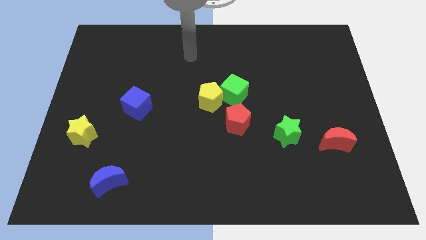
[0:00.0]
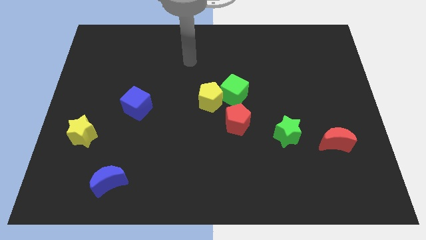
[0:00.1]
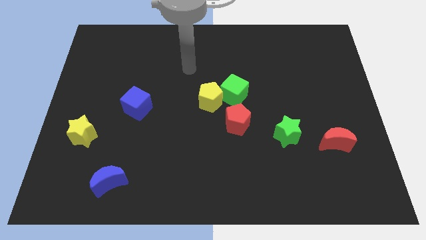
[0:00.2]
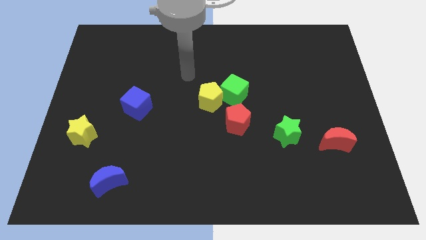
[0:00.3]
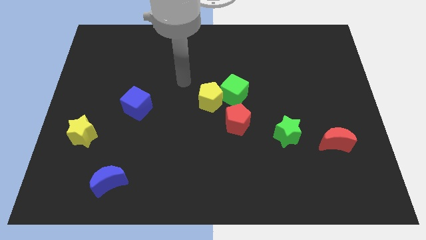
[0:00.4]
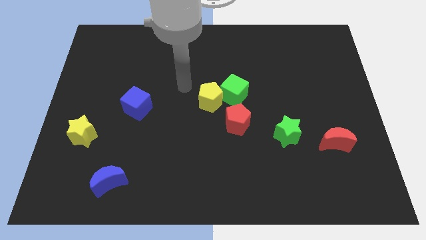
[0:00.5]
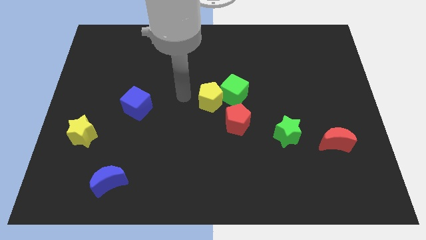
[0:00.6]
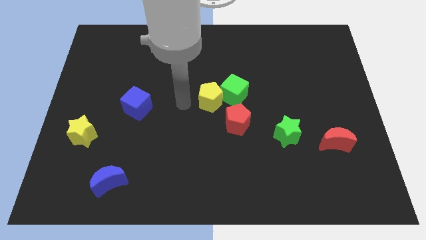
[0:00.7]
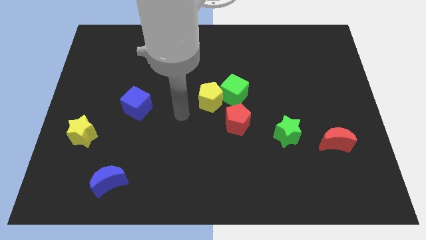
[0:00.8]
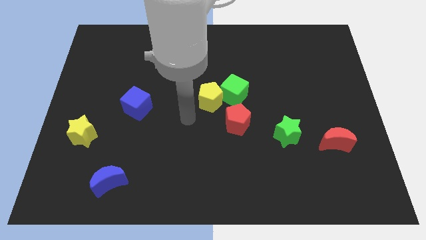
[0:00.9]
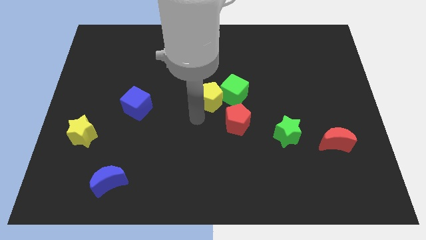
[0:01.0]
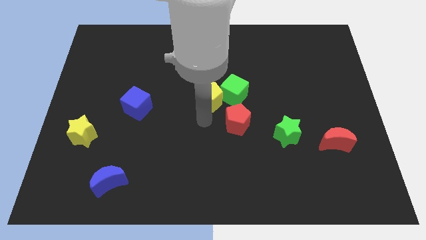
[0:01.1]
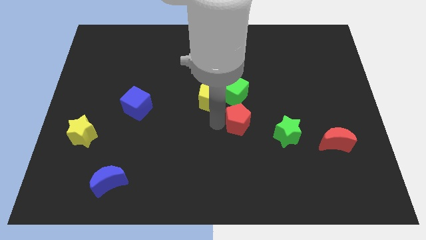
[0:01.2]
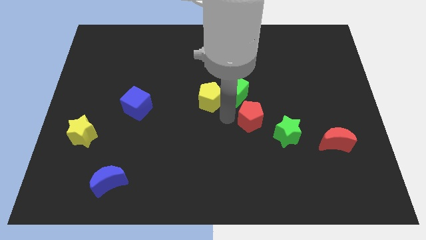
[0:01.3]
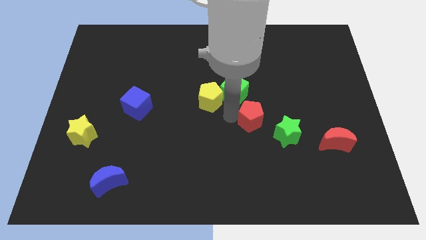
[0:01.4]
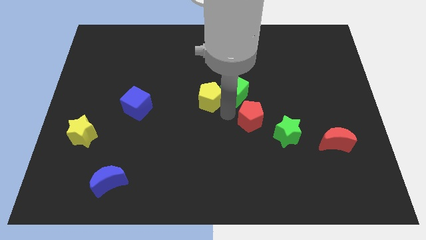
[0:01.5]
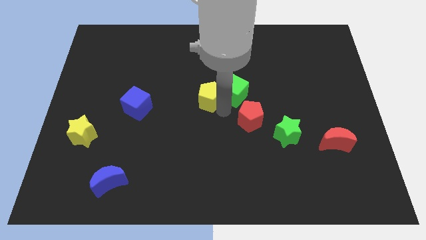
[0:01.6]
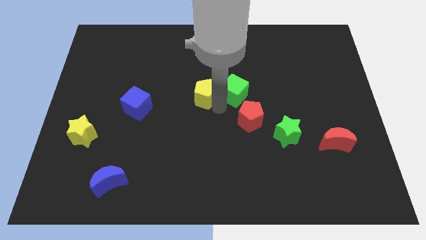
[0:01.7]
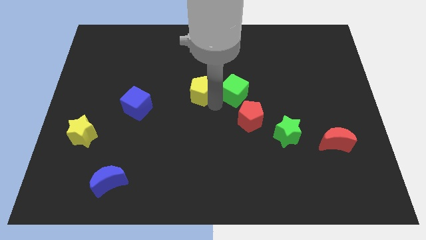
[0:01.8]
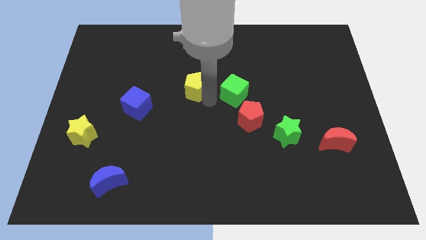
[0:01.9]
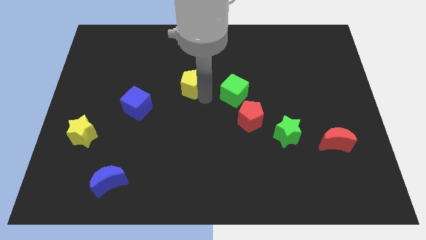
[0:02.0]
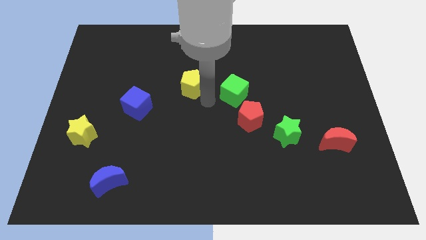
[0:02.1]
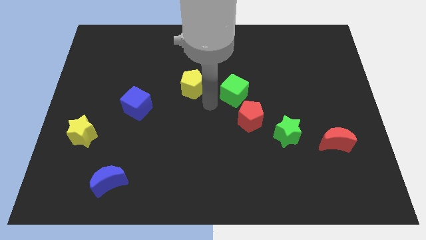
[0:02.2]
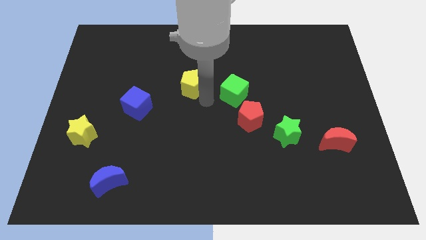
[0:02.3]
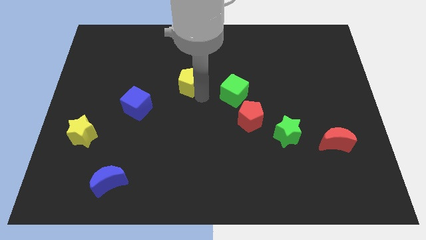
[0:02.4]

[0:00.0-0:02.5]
slightly push the yellow pentagon upwards and to the left

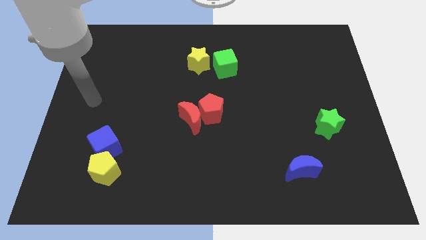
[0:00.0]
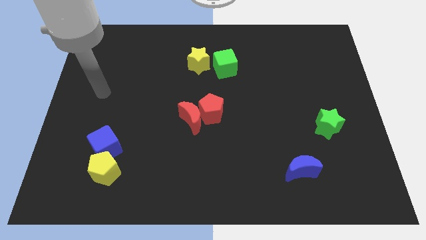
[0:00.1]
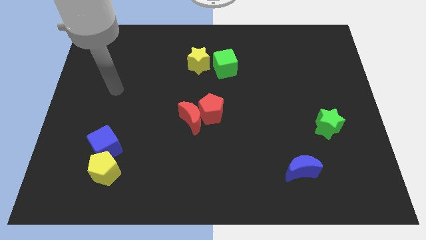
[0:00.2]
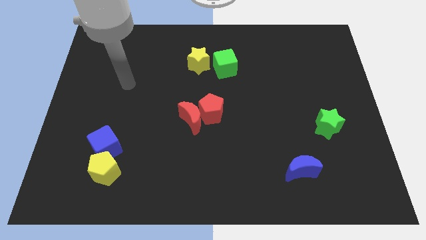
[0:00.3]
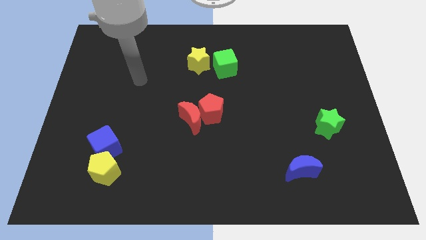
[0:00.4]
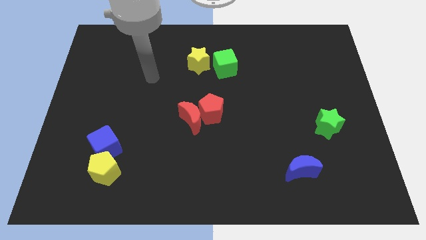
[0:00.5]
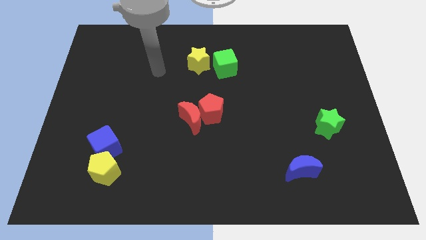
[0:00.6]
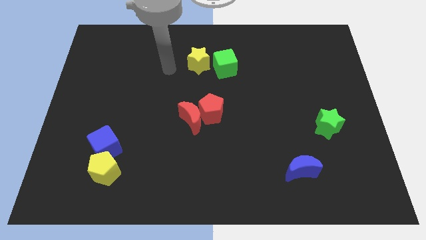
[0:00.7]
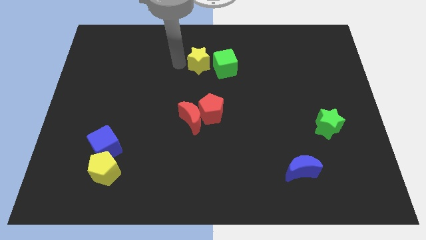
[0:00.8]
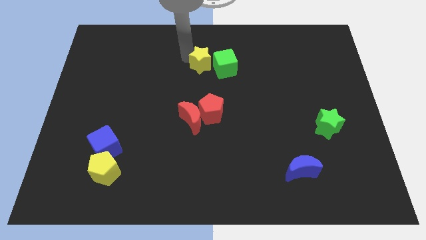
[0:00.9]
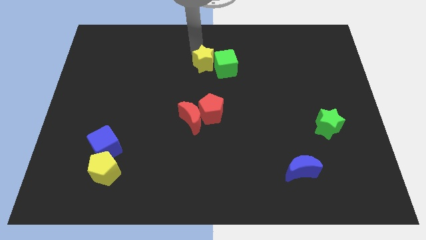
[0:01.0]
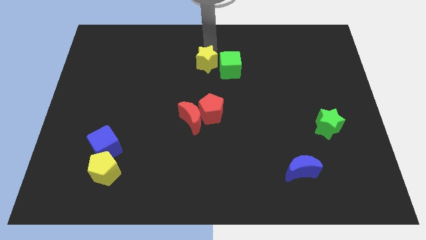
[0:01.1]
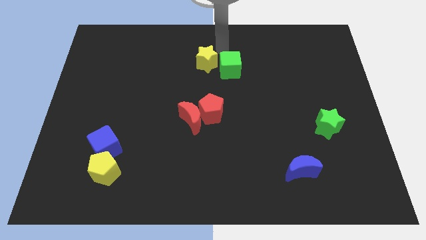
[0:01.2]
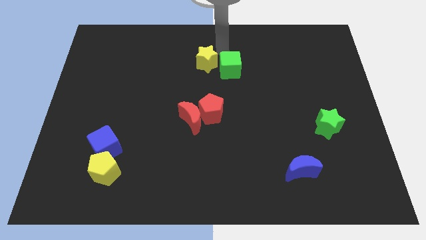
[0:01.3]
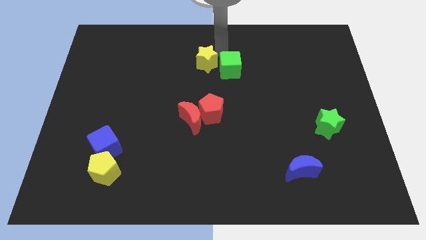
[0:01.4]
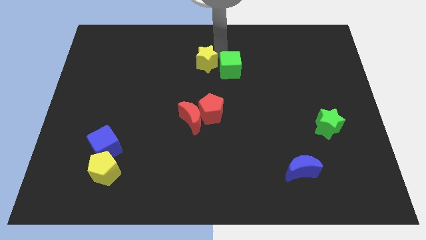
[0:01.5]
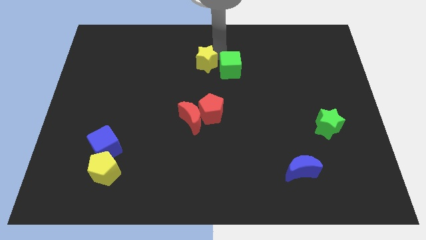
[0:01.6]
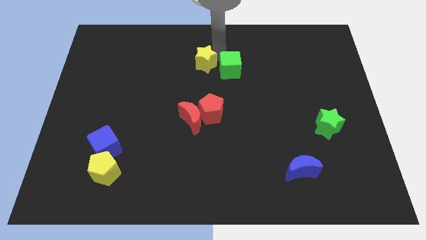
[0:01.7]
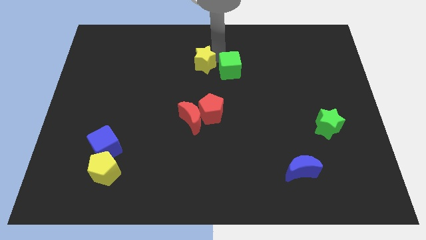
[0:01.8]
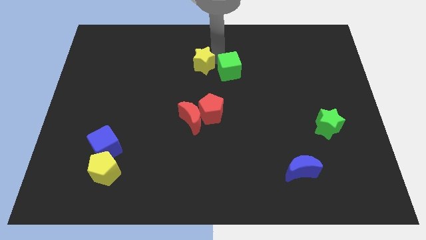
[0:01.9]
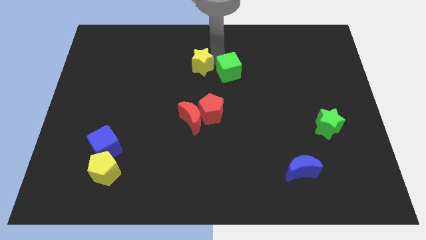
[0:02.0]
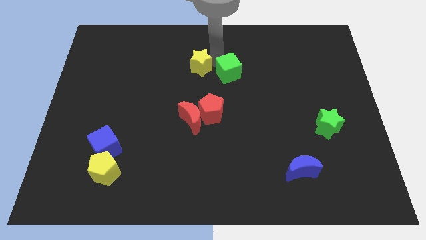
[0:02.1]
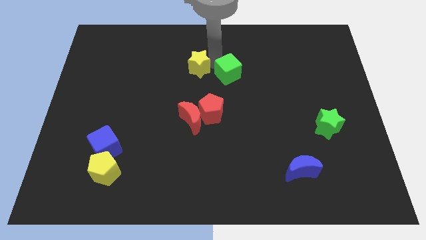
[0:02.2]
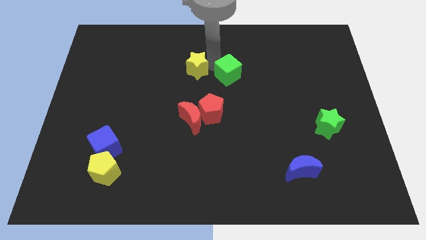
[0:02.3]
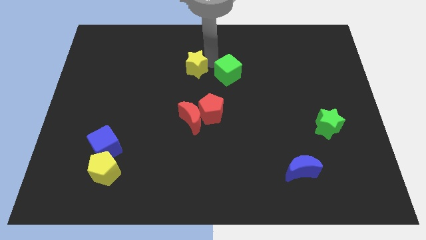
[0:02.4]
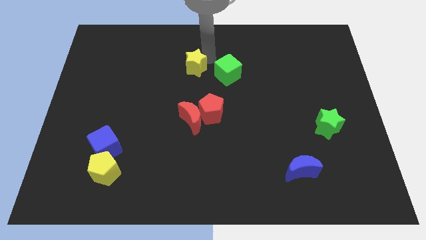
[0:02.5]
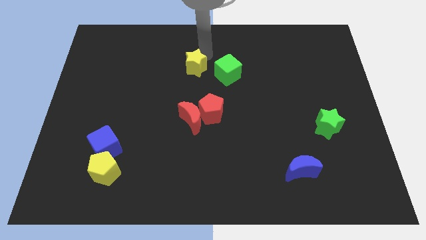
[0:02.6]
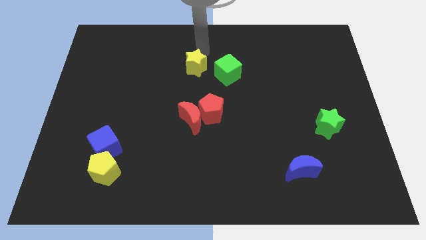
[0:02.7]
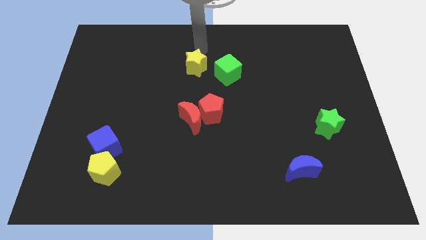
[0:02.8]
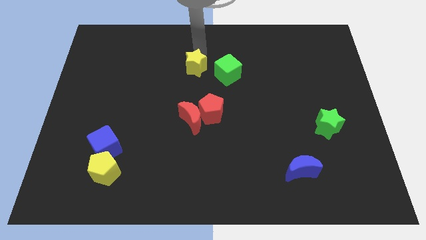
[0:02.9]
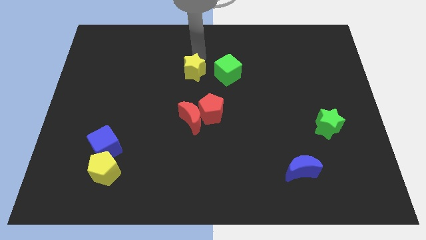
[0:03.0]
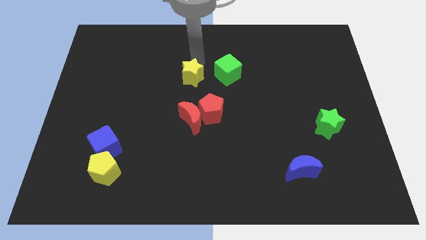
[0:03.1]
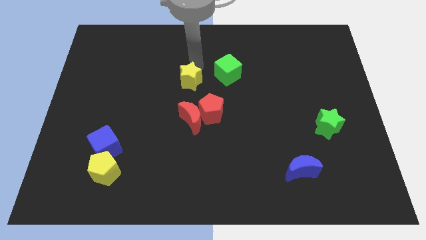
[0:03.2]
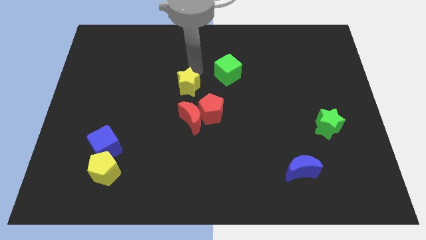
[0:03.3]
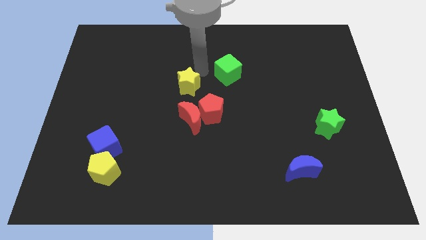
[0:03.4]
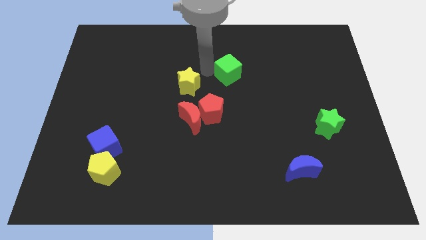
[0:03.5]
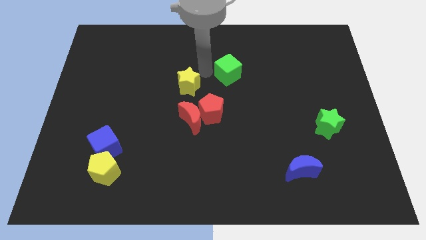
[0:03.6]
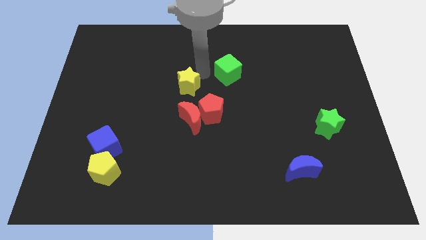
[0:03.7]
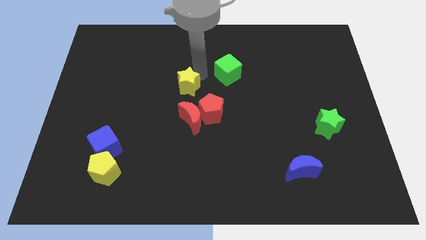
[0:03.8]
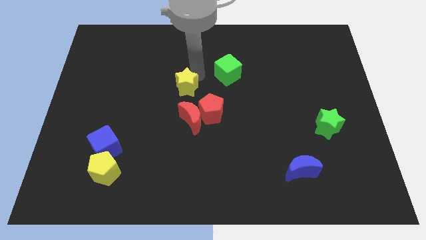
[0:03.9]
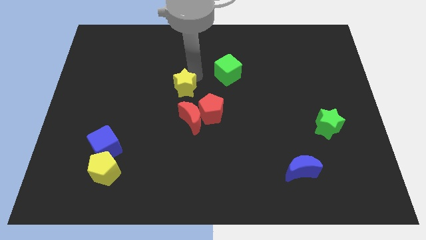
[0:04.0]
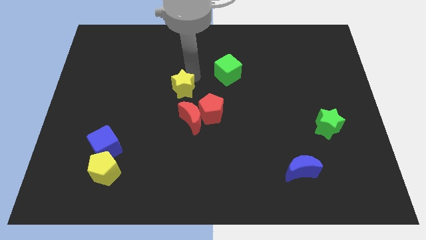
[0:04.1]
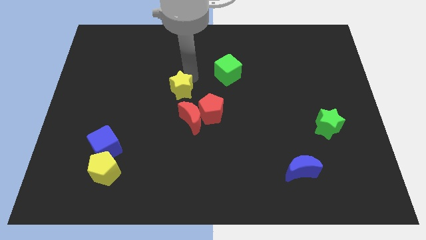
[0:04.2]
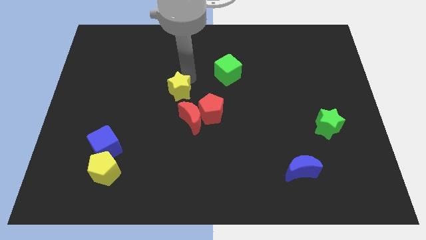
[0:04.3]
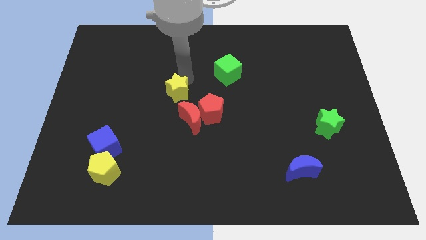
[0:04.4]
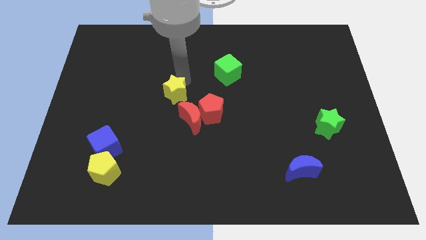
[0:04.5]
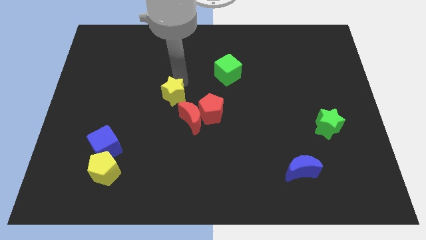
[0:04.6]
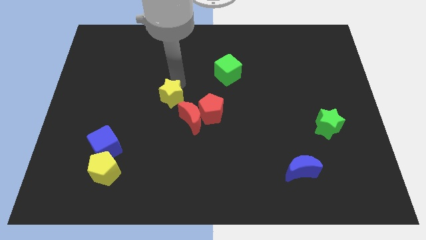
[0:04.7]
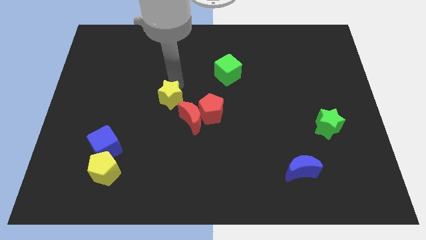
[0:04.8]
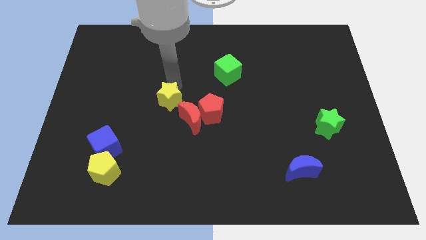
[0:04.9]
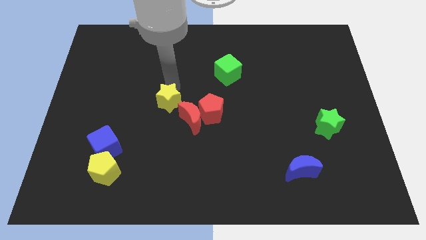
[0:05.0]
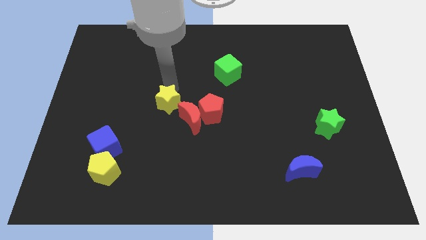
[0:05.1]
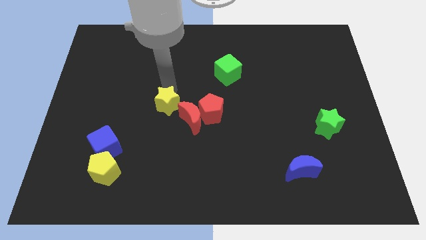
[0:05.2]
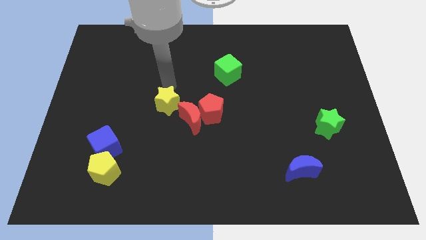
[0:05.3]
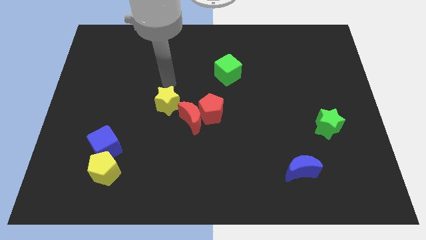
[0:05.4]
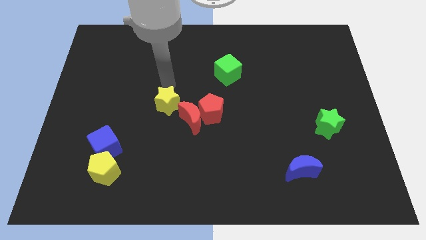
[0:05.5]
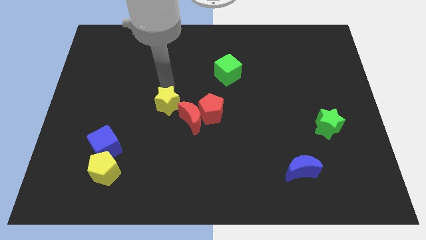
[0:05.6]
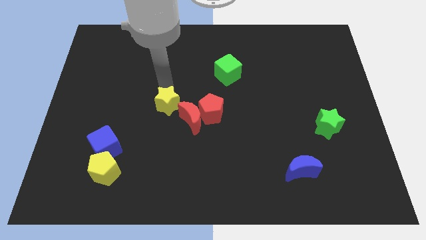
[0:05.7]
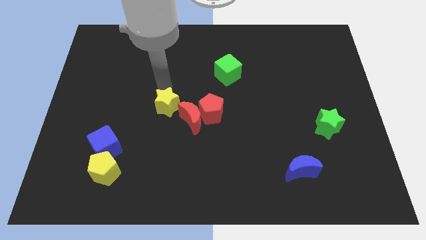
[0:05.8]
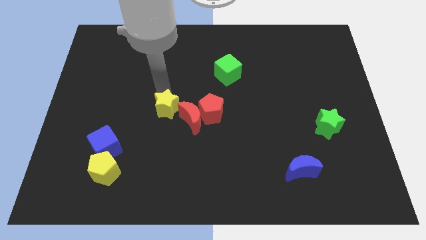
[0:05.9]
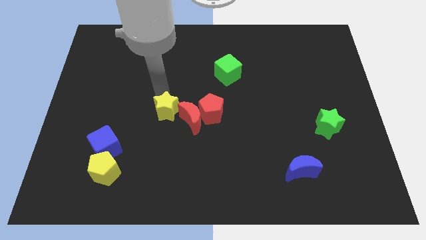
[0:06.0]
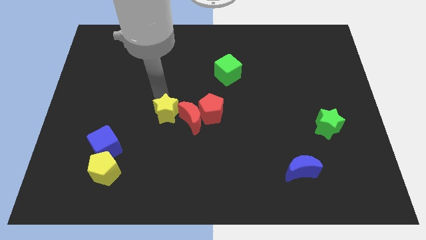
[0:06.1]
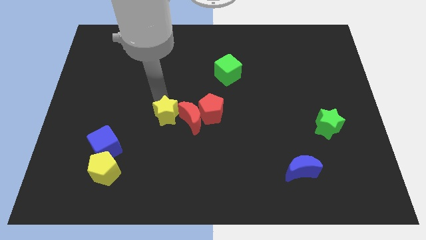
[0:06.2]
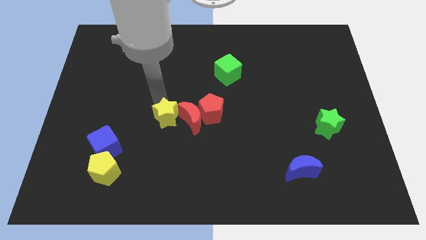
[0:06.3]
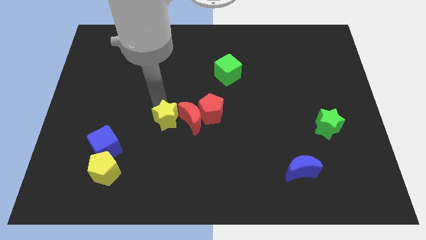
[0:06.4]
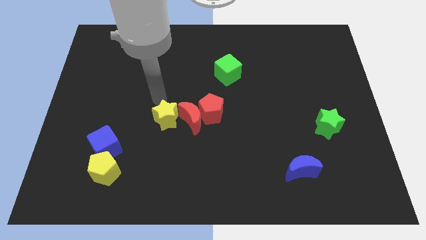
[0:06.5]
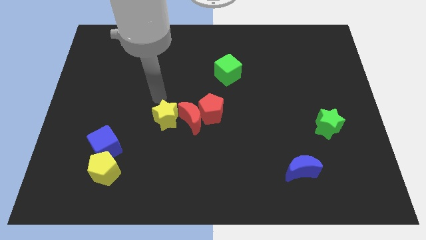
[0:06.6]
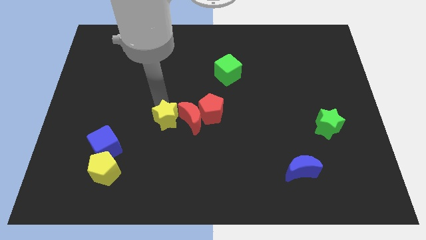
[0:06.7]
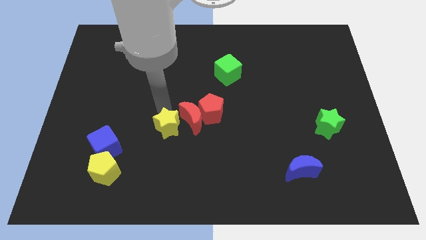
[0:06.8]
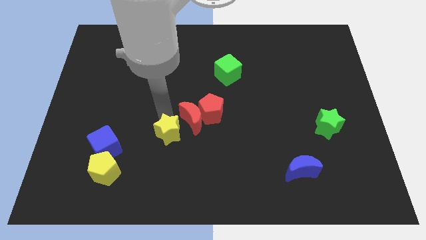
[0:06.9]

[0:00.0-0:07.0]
move the yellow star down
